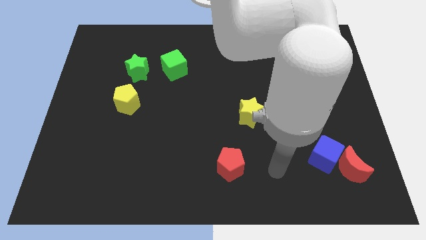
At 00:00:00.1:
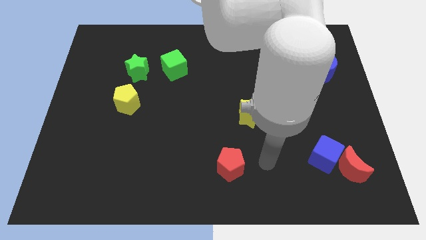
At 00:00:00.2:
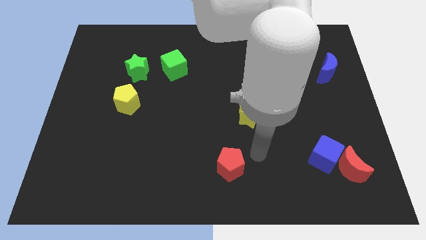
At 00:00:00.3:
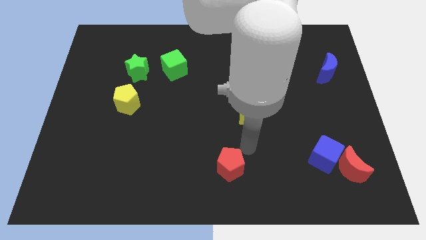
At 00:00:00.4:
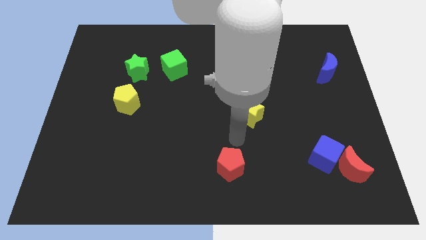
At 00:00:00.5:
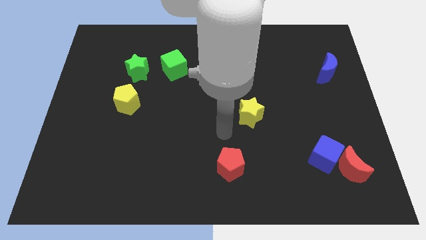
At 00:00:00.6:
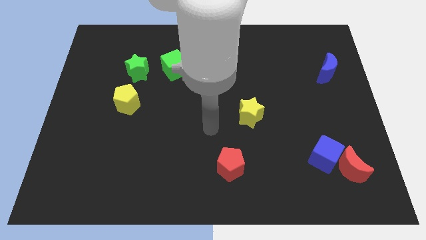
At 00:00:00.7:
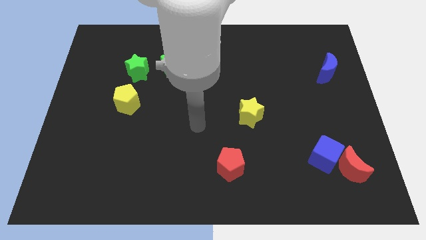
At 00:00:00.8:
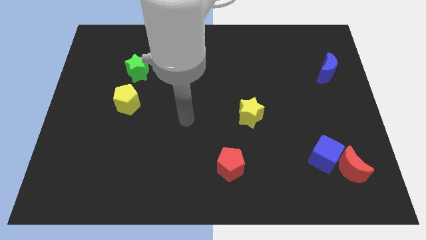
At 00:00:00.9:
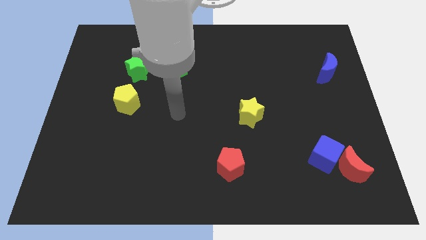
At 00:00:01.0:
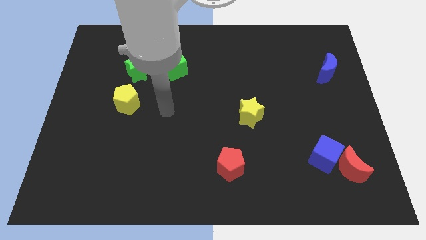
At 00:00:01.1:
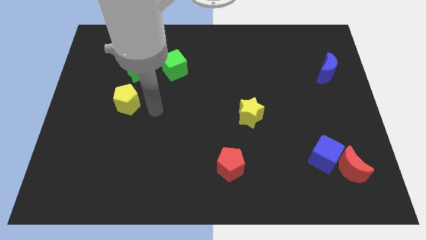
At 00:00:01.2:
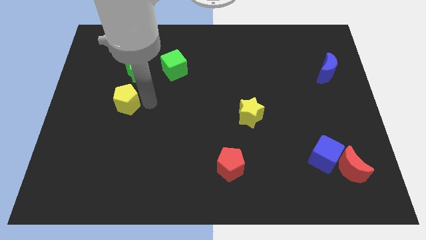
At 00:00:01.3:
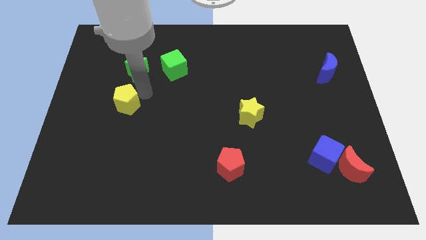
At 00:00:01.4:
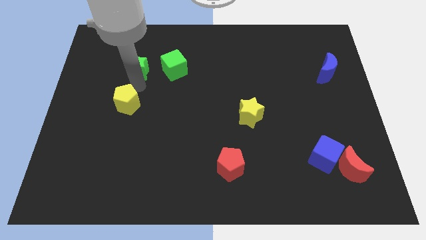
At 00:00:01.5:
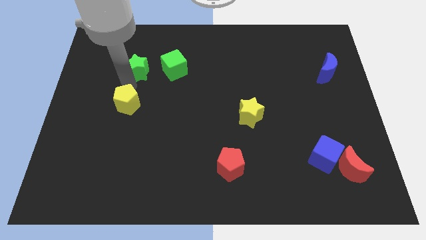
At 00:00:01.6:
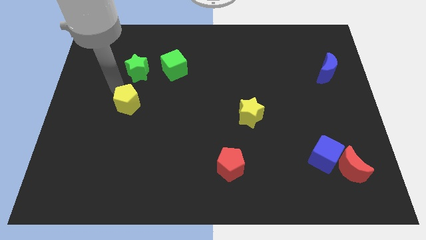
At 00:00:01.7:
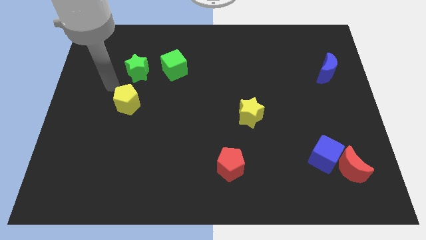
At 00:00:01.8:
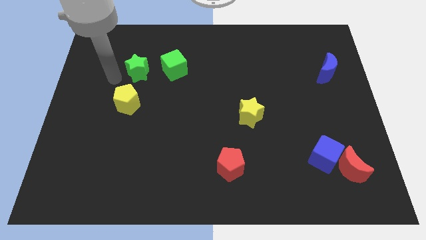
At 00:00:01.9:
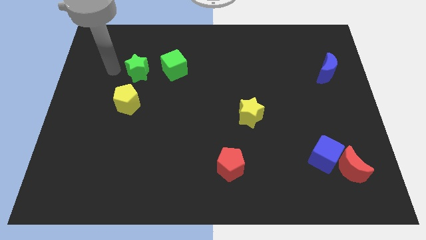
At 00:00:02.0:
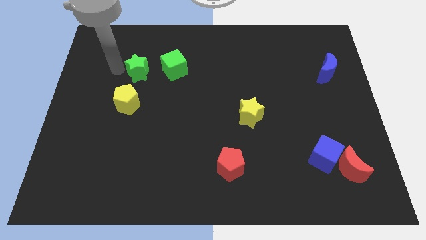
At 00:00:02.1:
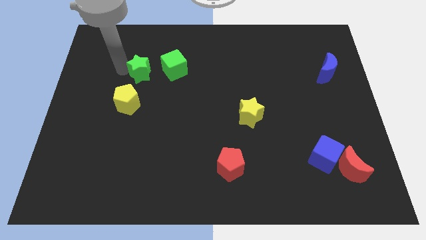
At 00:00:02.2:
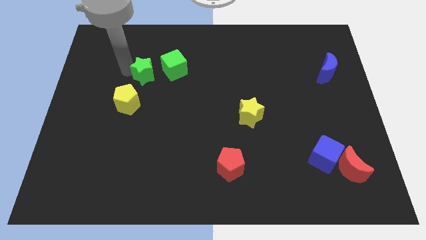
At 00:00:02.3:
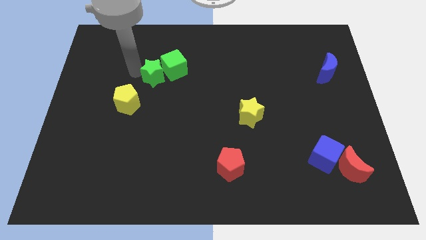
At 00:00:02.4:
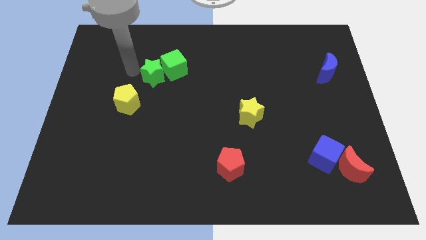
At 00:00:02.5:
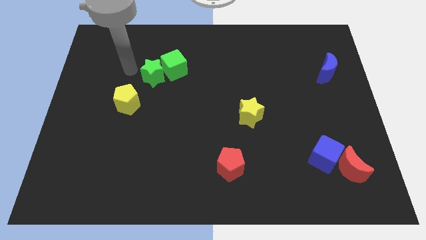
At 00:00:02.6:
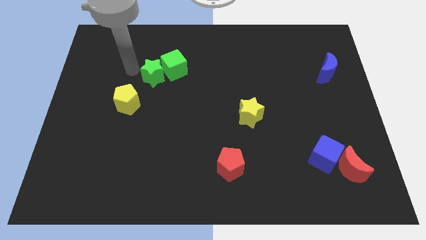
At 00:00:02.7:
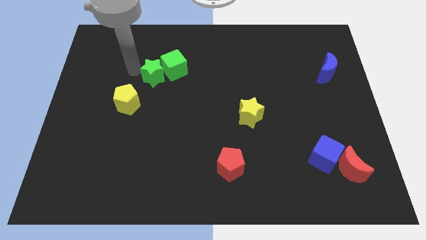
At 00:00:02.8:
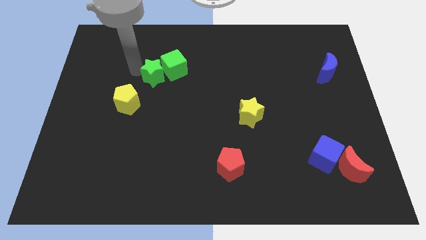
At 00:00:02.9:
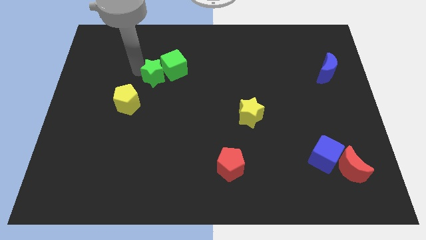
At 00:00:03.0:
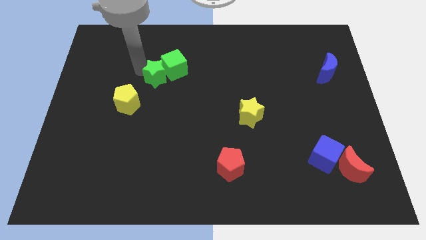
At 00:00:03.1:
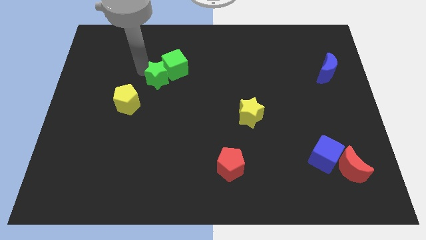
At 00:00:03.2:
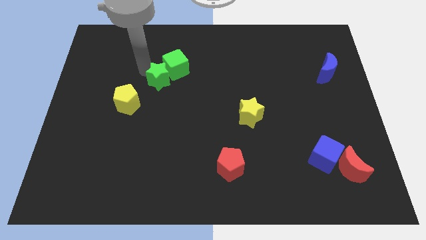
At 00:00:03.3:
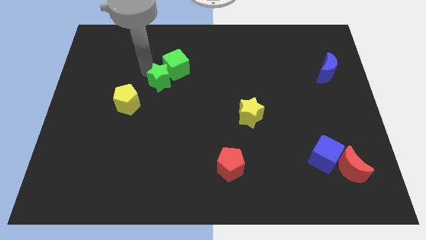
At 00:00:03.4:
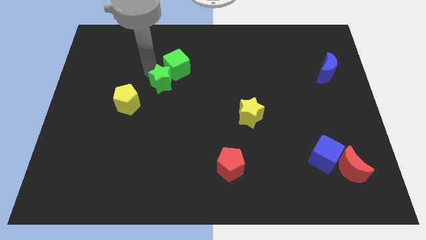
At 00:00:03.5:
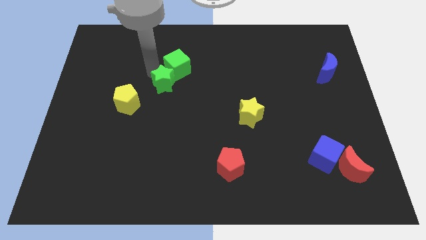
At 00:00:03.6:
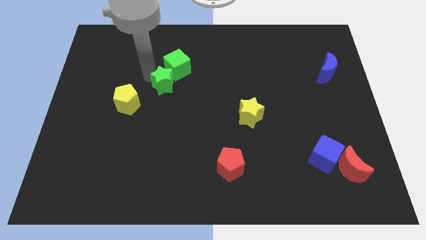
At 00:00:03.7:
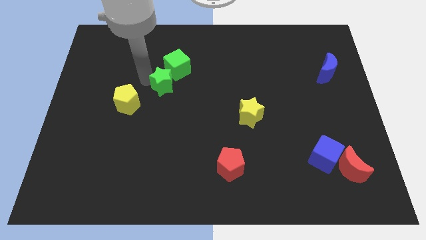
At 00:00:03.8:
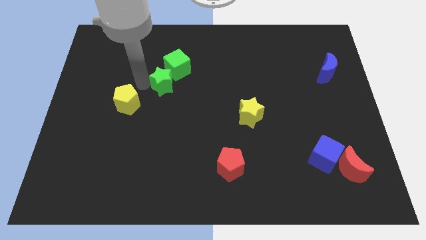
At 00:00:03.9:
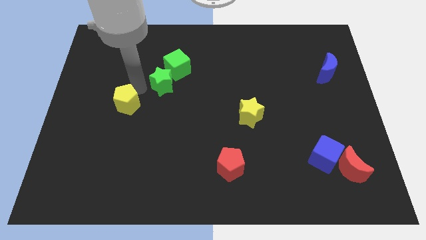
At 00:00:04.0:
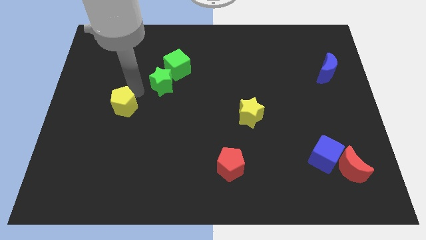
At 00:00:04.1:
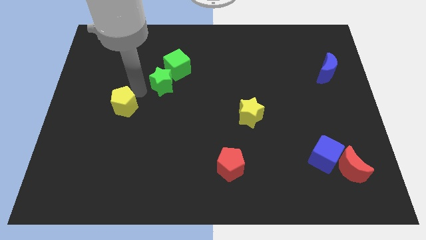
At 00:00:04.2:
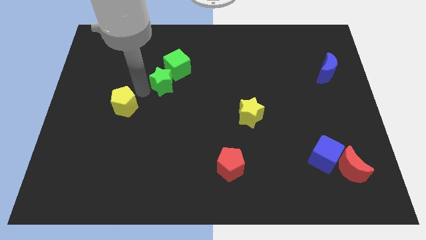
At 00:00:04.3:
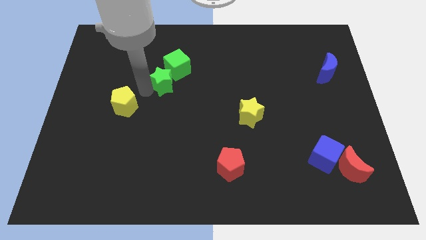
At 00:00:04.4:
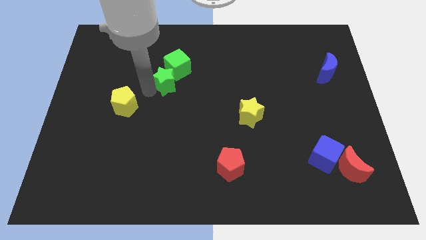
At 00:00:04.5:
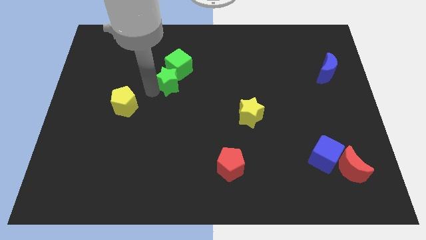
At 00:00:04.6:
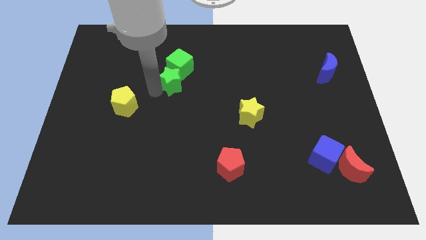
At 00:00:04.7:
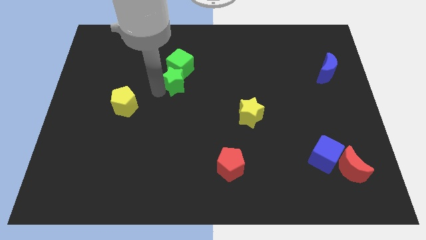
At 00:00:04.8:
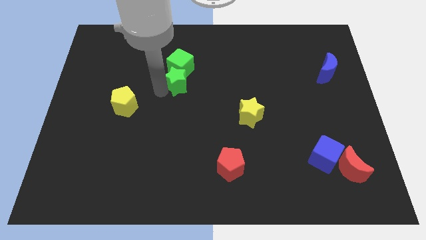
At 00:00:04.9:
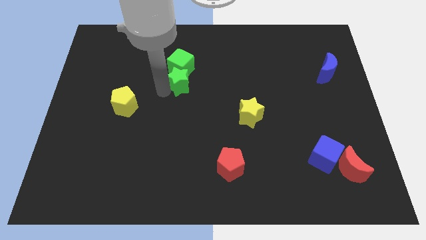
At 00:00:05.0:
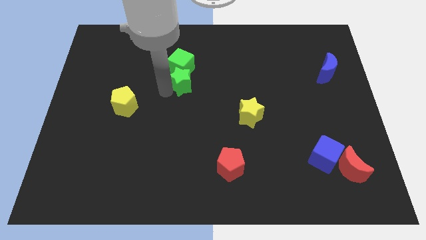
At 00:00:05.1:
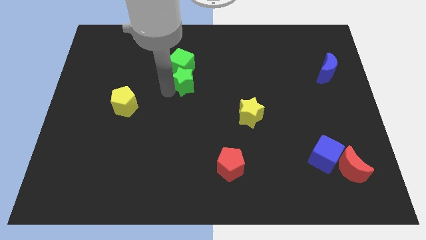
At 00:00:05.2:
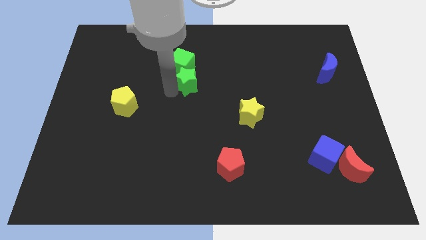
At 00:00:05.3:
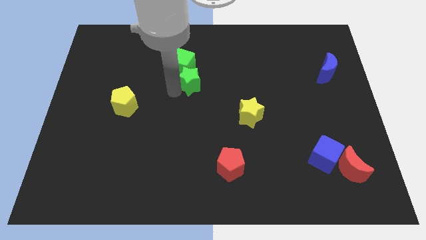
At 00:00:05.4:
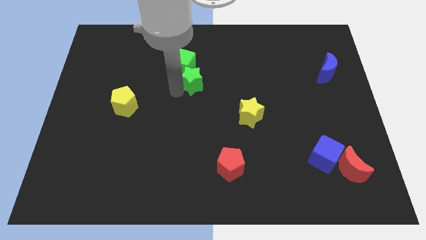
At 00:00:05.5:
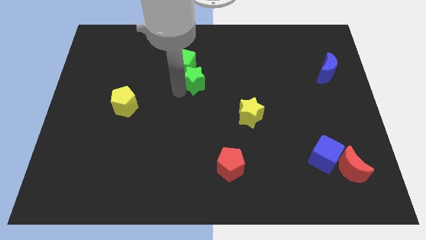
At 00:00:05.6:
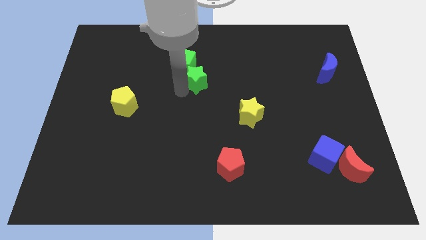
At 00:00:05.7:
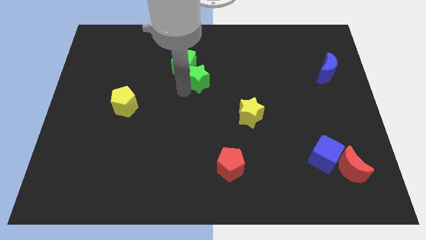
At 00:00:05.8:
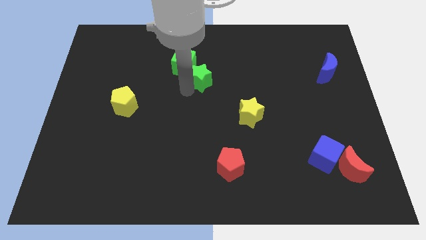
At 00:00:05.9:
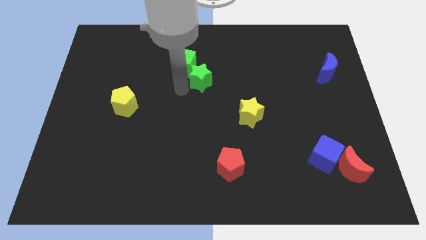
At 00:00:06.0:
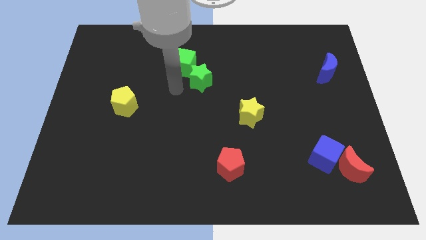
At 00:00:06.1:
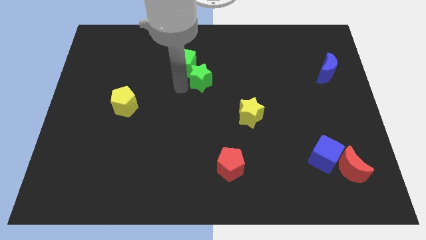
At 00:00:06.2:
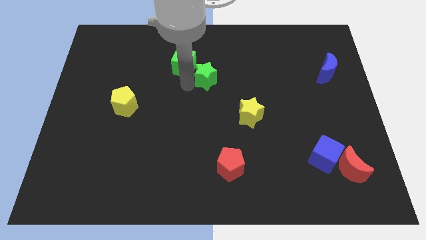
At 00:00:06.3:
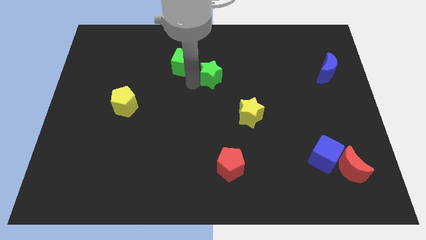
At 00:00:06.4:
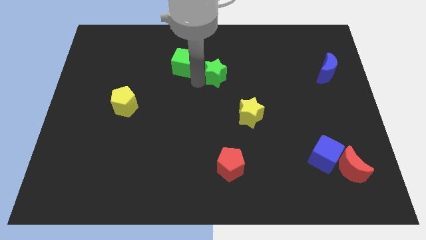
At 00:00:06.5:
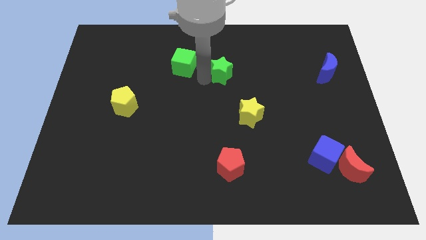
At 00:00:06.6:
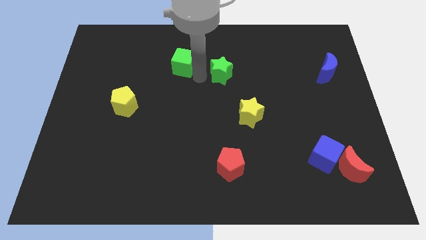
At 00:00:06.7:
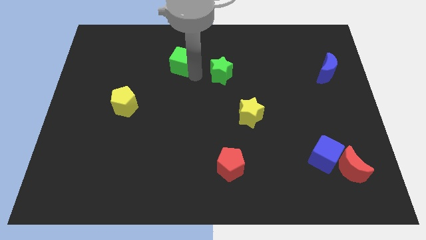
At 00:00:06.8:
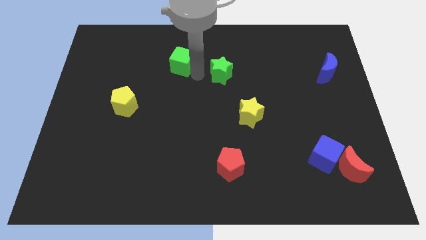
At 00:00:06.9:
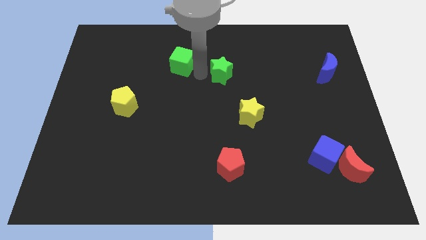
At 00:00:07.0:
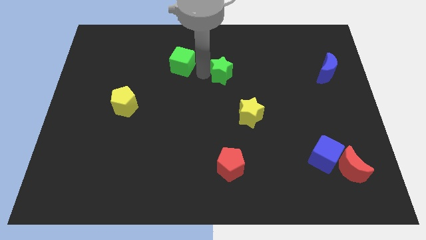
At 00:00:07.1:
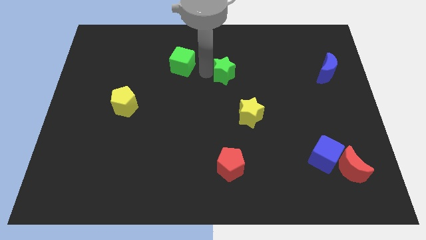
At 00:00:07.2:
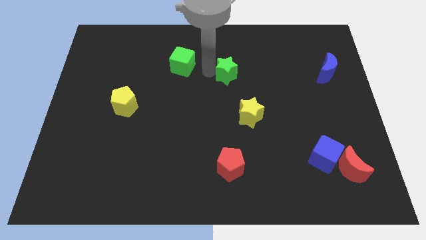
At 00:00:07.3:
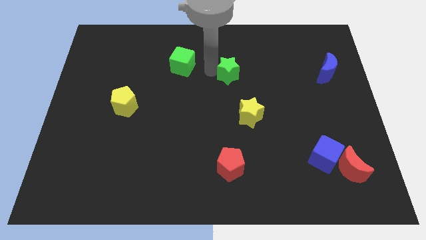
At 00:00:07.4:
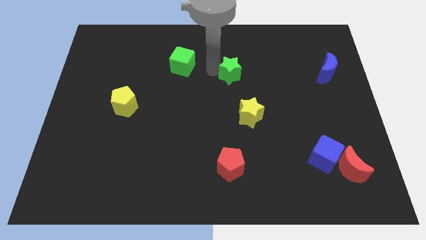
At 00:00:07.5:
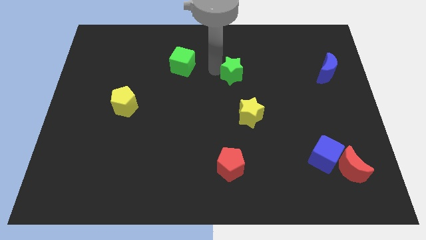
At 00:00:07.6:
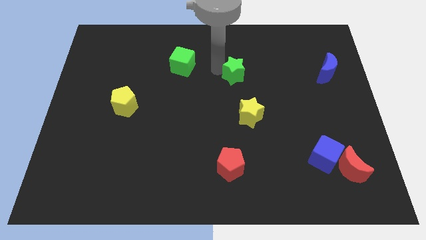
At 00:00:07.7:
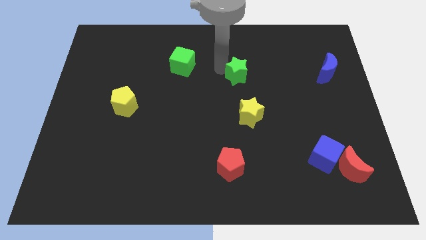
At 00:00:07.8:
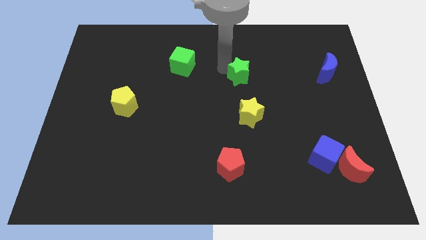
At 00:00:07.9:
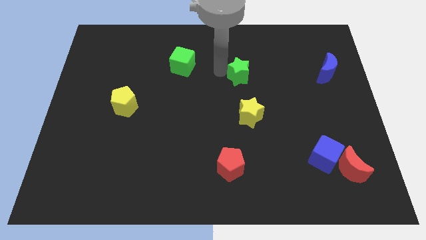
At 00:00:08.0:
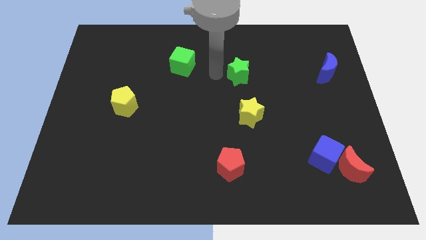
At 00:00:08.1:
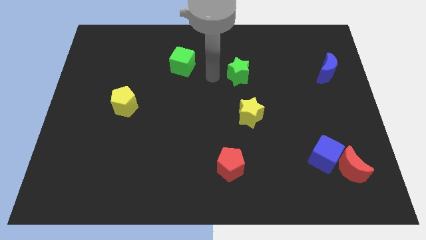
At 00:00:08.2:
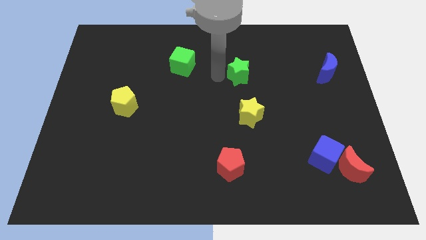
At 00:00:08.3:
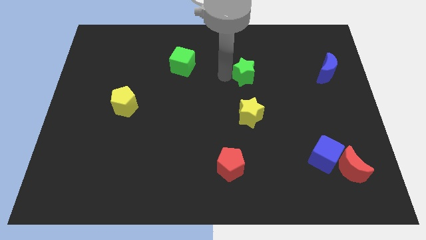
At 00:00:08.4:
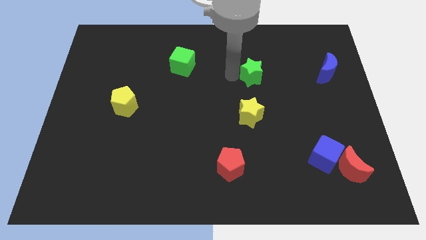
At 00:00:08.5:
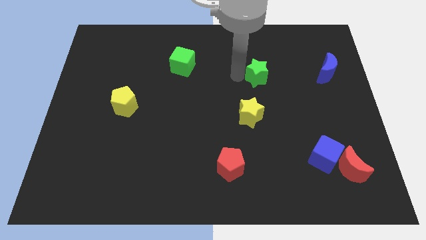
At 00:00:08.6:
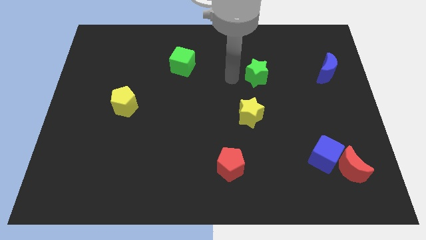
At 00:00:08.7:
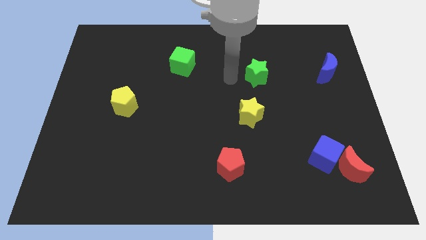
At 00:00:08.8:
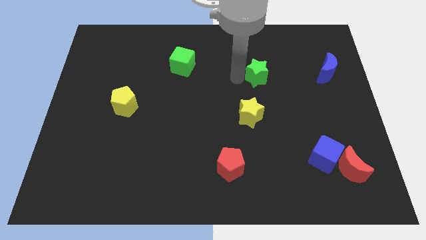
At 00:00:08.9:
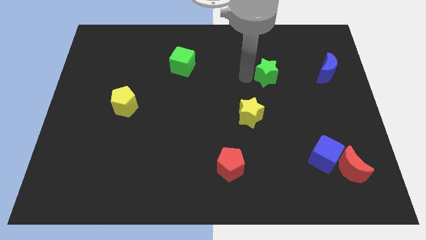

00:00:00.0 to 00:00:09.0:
move the green star left of the blue moon
